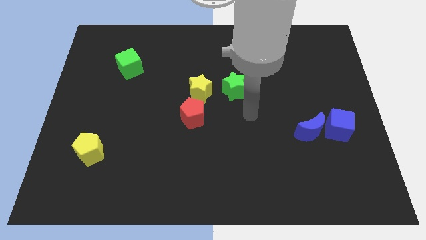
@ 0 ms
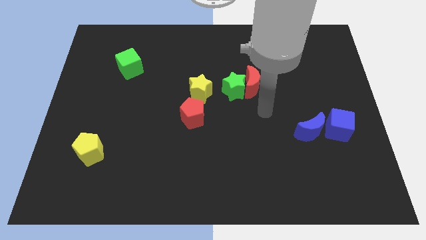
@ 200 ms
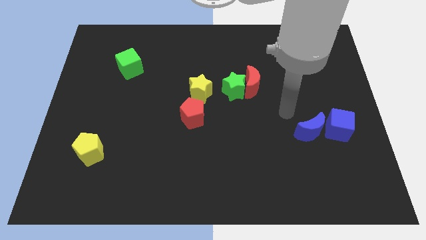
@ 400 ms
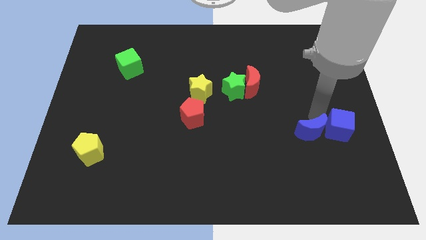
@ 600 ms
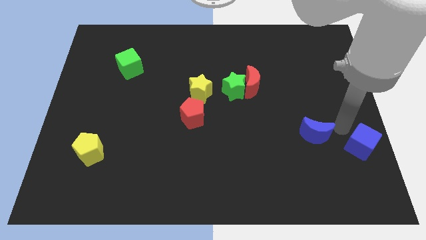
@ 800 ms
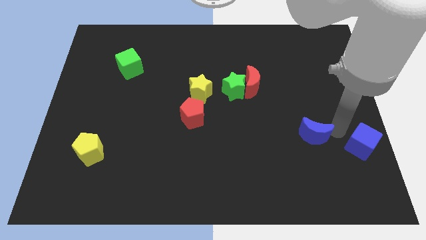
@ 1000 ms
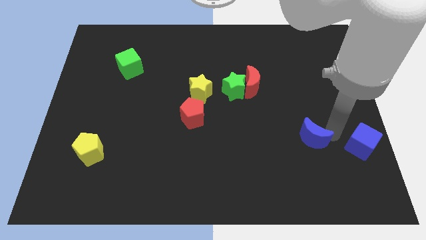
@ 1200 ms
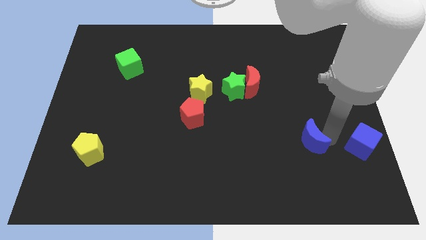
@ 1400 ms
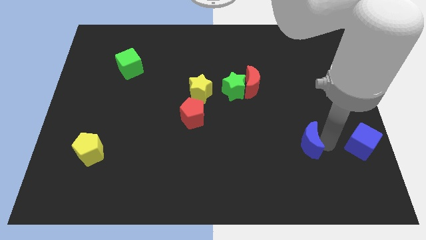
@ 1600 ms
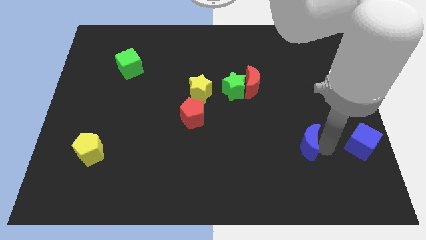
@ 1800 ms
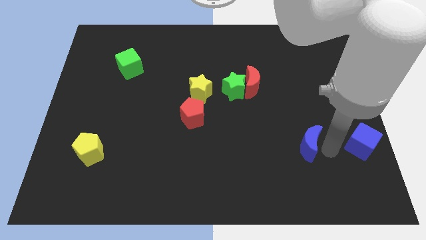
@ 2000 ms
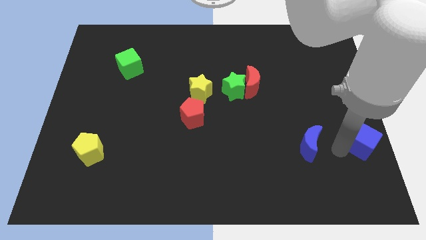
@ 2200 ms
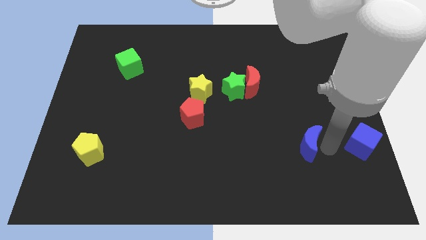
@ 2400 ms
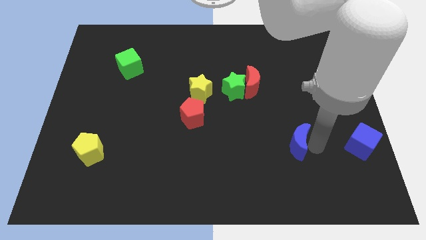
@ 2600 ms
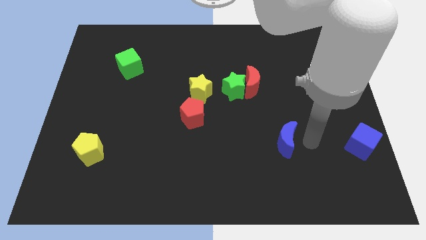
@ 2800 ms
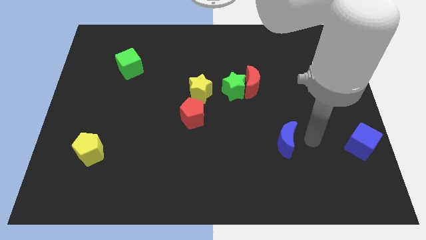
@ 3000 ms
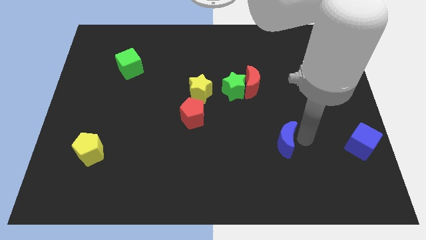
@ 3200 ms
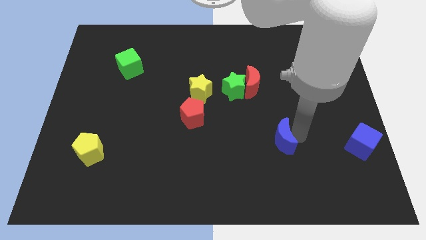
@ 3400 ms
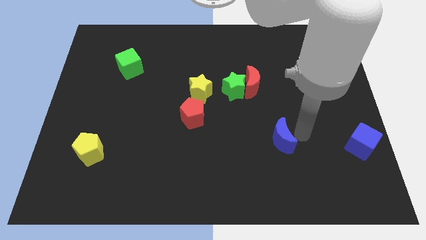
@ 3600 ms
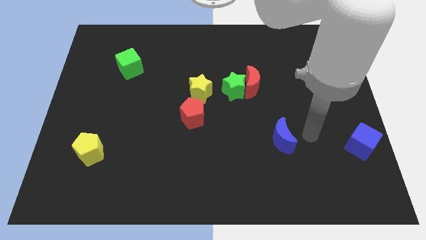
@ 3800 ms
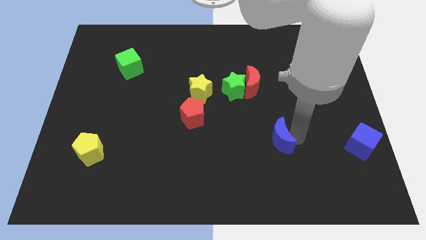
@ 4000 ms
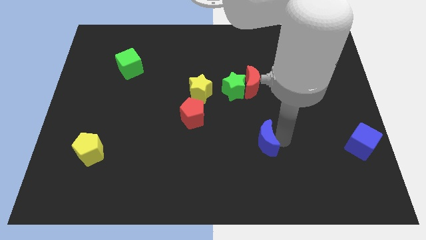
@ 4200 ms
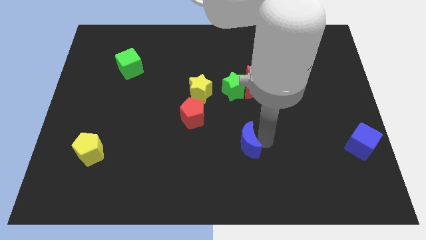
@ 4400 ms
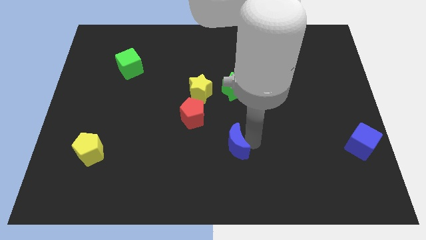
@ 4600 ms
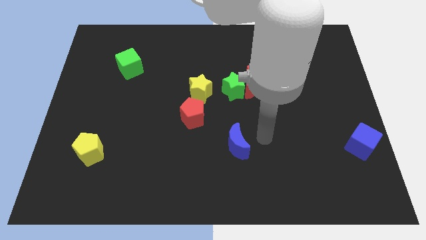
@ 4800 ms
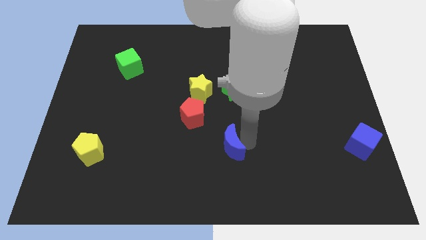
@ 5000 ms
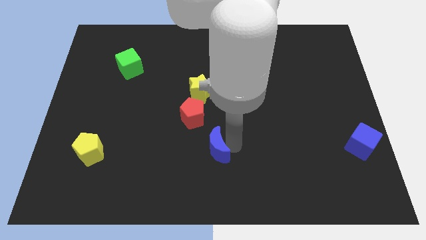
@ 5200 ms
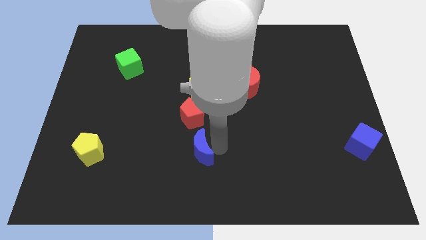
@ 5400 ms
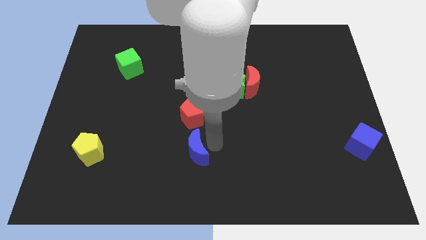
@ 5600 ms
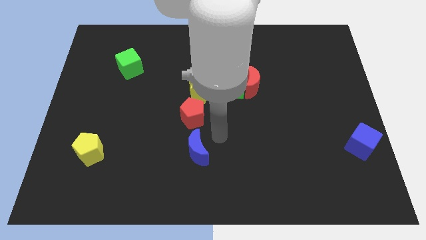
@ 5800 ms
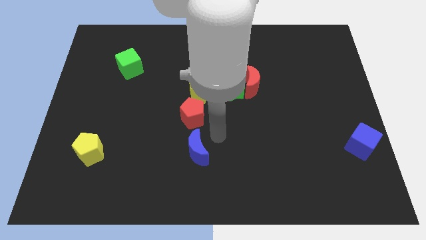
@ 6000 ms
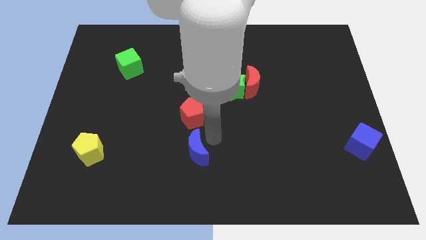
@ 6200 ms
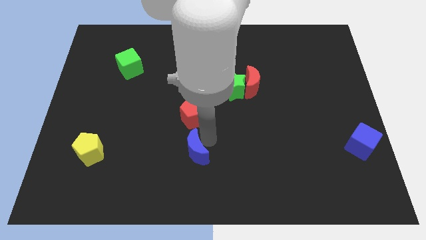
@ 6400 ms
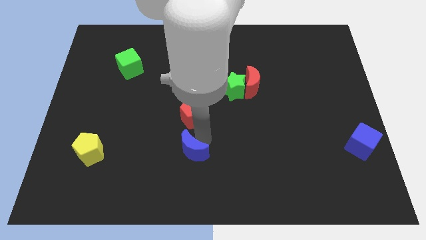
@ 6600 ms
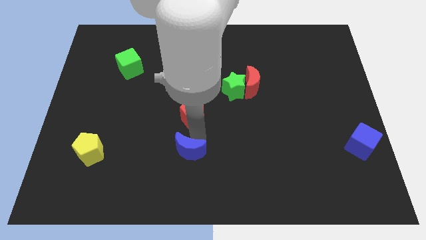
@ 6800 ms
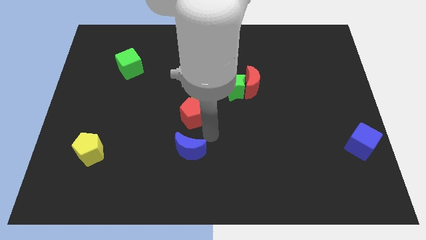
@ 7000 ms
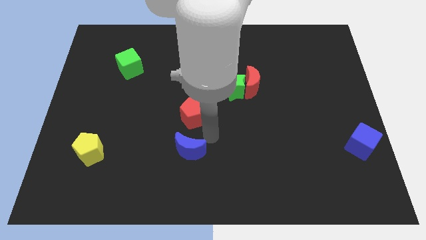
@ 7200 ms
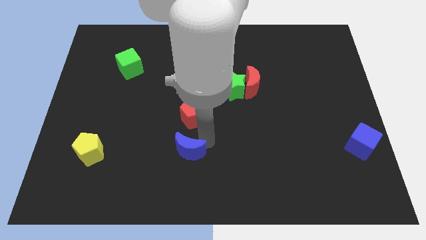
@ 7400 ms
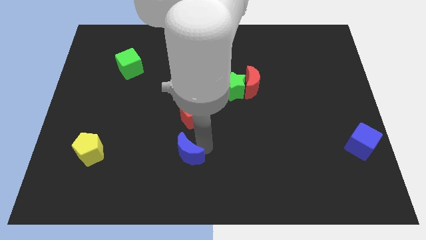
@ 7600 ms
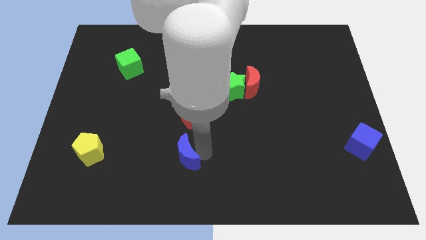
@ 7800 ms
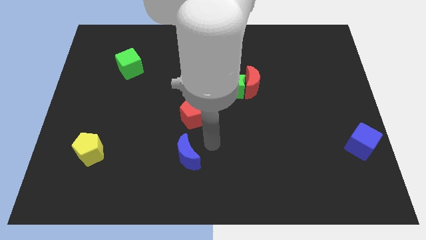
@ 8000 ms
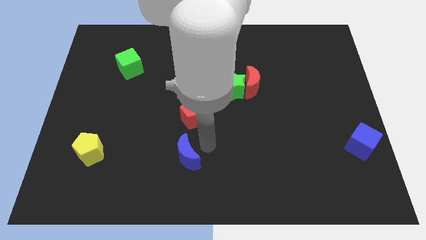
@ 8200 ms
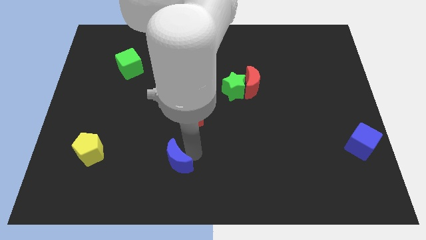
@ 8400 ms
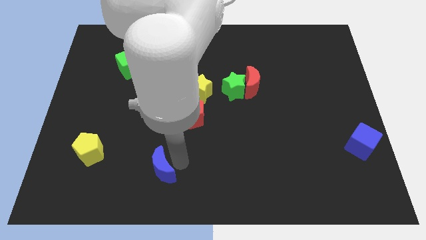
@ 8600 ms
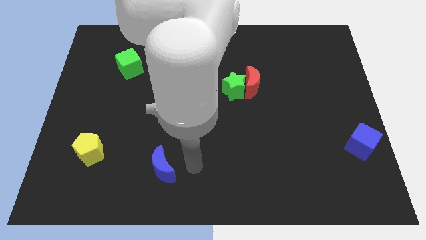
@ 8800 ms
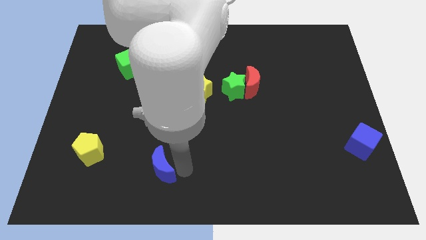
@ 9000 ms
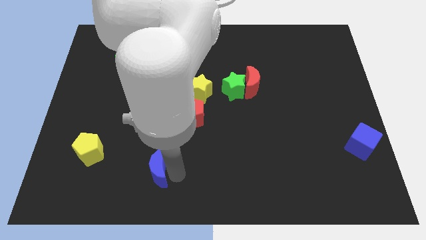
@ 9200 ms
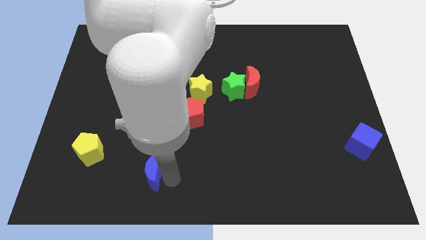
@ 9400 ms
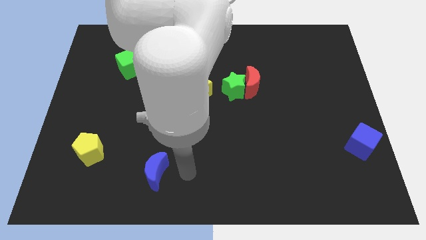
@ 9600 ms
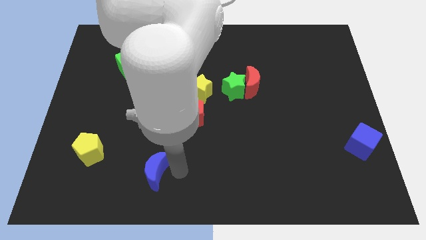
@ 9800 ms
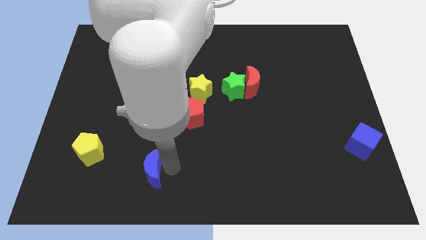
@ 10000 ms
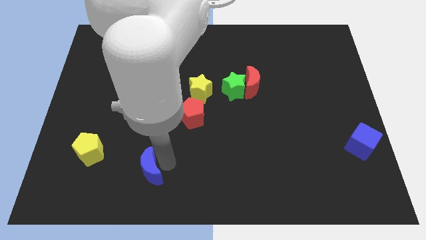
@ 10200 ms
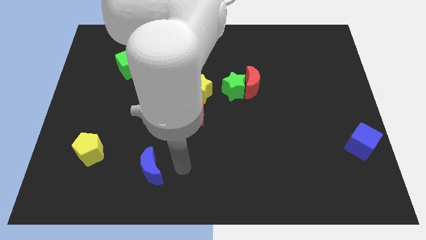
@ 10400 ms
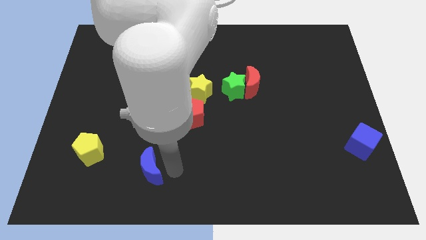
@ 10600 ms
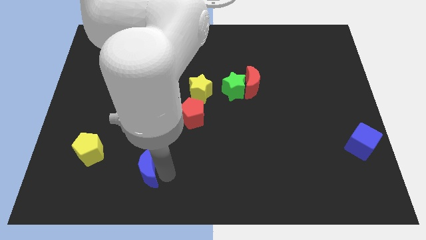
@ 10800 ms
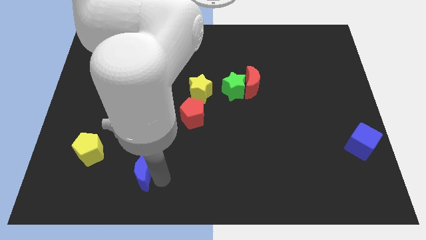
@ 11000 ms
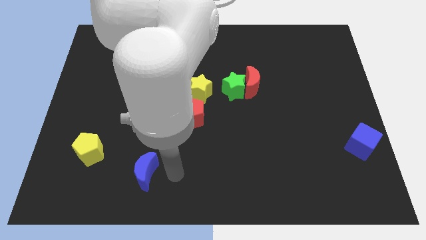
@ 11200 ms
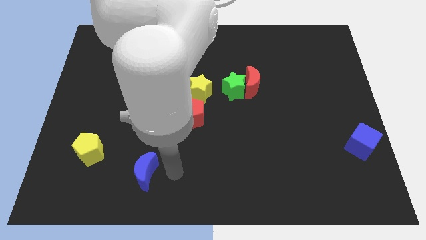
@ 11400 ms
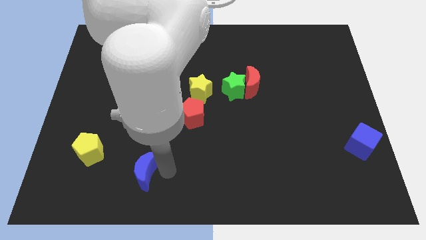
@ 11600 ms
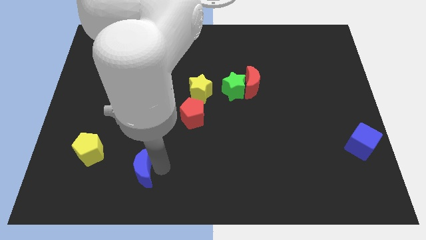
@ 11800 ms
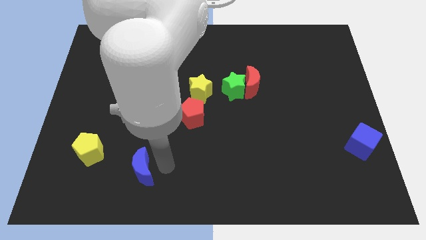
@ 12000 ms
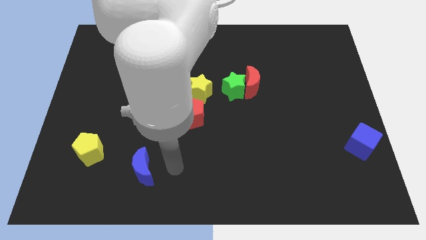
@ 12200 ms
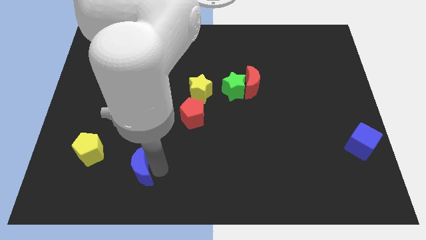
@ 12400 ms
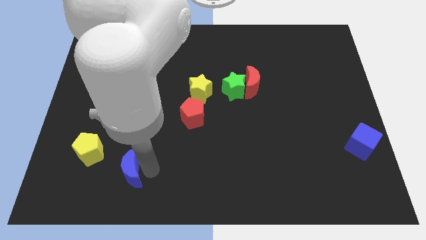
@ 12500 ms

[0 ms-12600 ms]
move the blue moon to the bottom right of the yellow pentagon

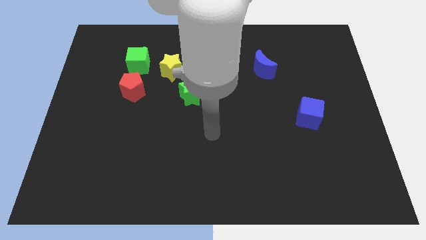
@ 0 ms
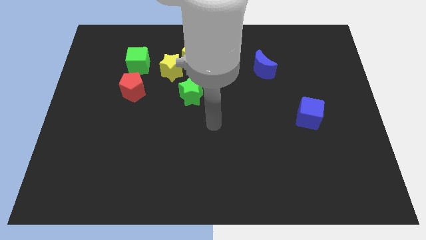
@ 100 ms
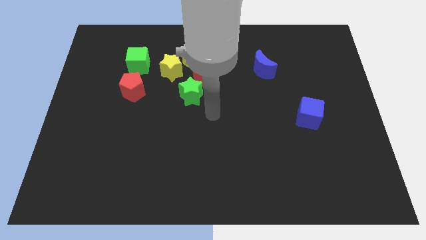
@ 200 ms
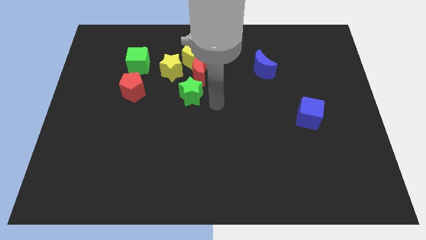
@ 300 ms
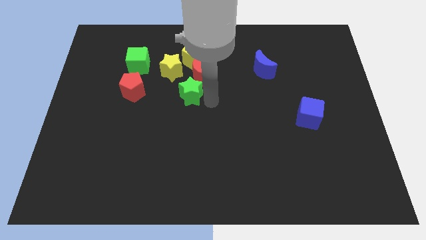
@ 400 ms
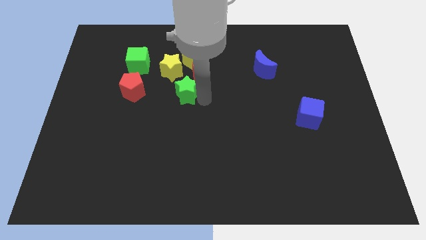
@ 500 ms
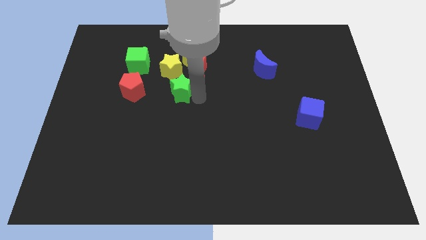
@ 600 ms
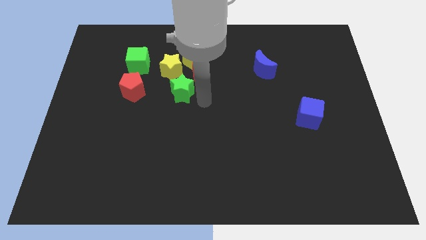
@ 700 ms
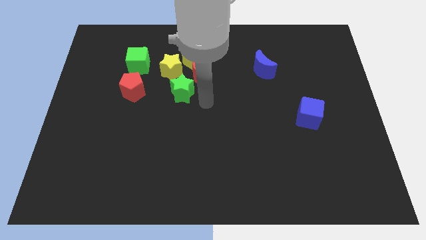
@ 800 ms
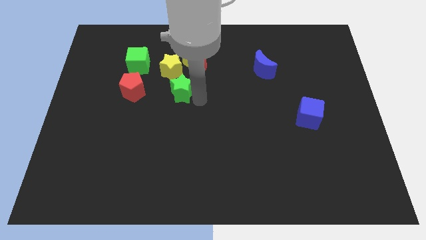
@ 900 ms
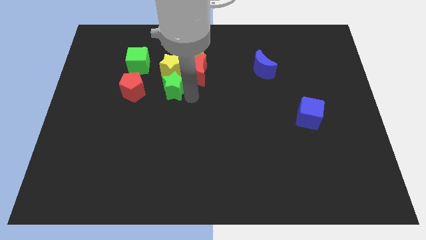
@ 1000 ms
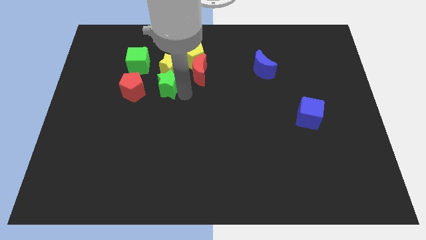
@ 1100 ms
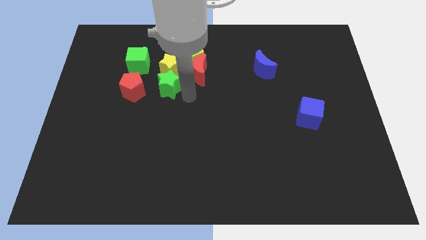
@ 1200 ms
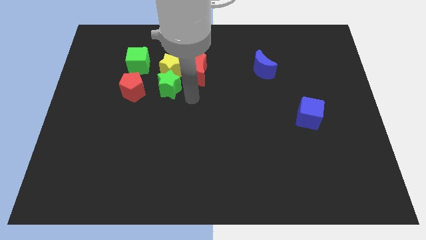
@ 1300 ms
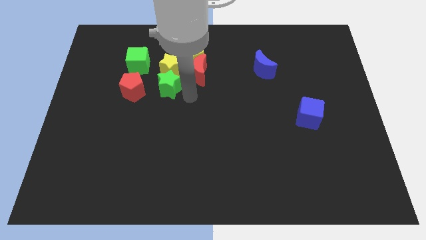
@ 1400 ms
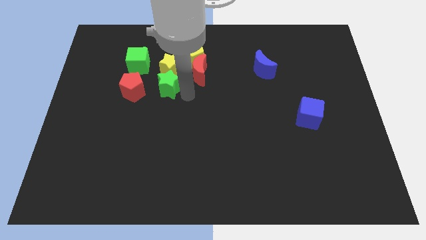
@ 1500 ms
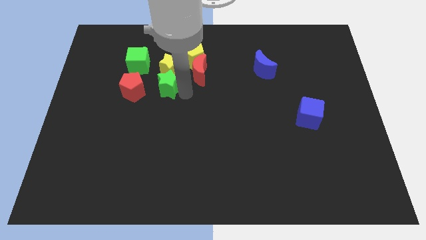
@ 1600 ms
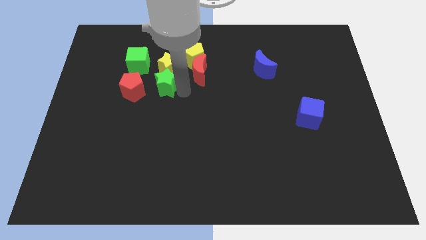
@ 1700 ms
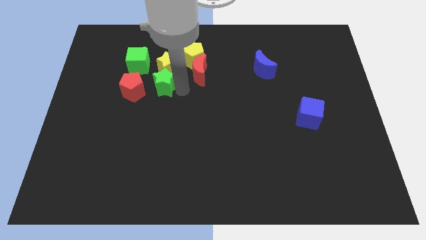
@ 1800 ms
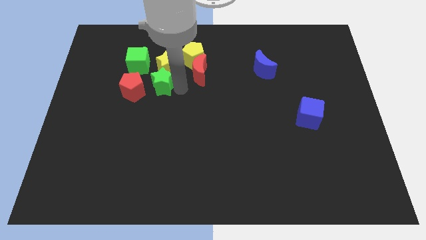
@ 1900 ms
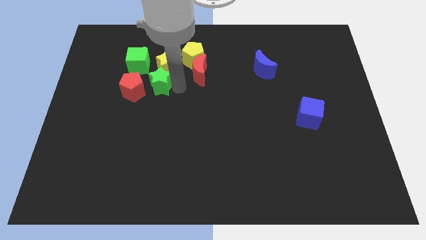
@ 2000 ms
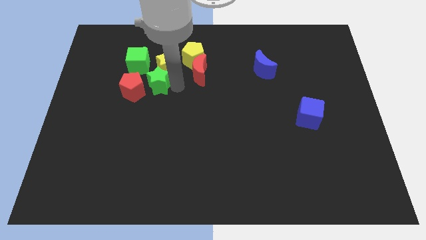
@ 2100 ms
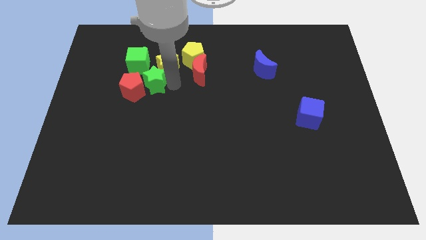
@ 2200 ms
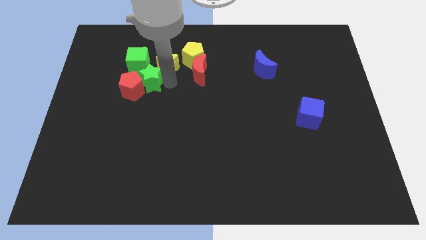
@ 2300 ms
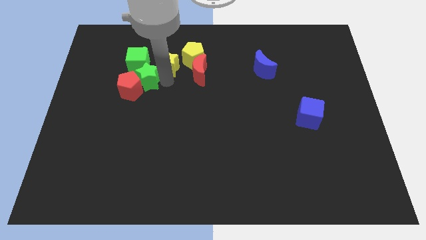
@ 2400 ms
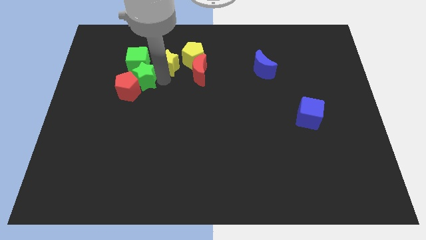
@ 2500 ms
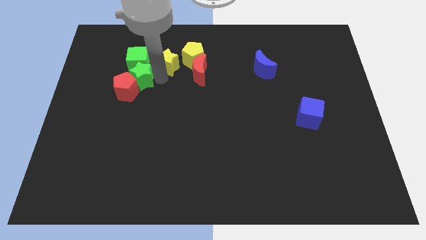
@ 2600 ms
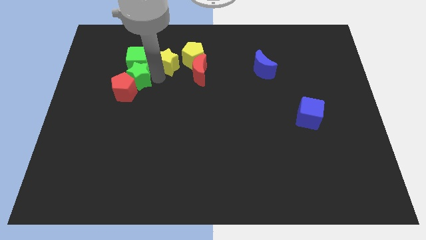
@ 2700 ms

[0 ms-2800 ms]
move the green star to the bottom left of the green cube
